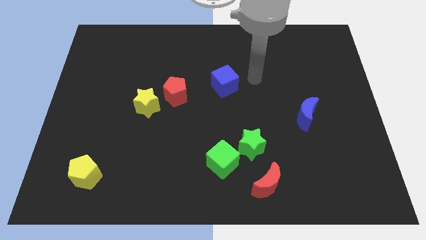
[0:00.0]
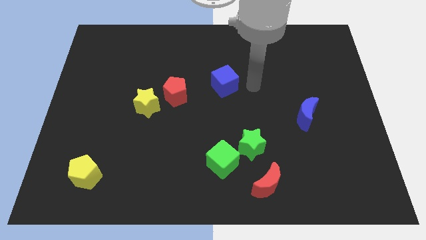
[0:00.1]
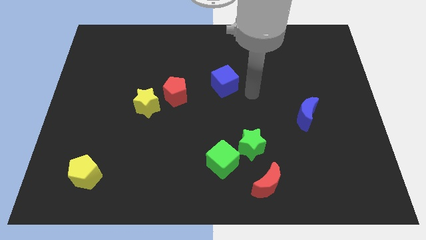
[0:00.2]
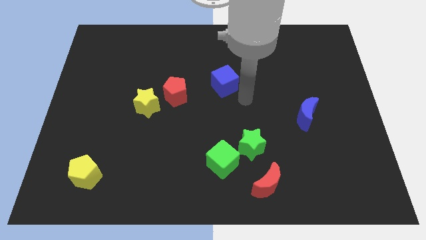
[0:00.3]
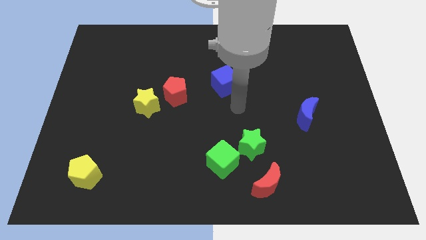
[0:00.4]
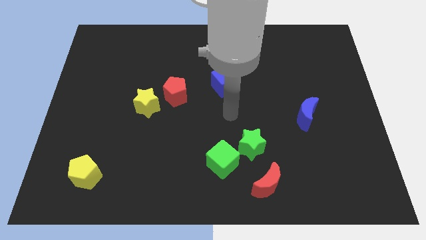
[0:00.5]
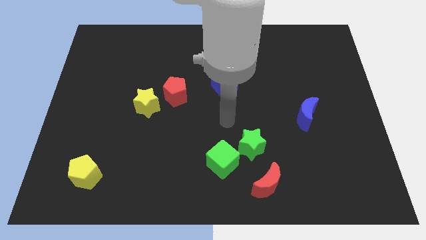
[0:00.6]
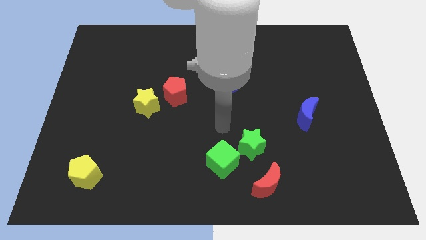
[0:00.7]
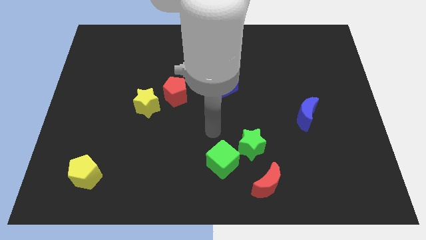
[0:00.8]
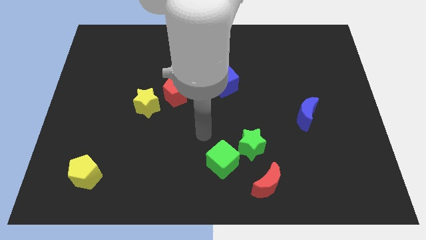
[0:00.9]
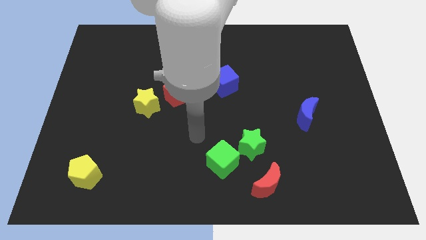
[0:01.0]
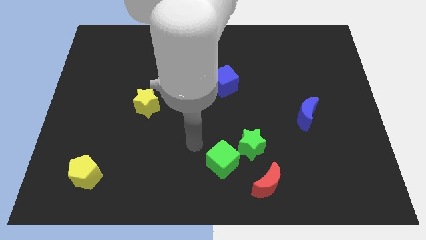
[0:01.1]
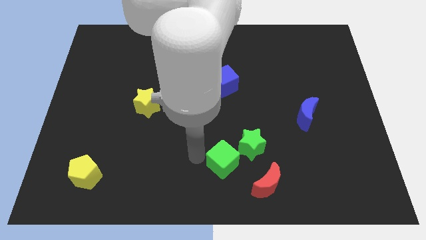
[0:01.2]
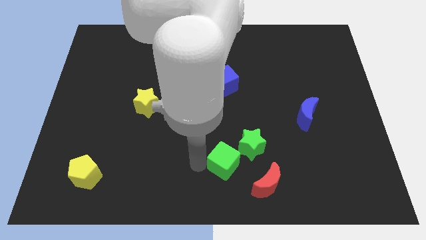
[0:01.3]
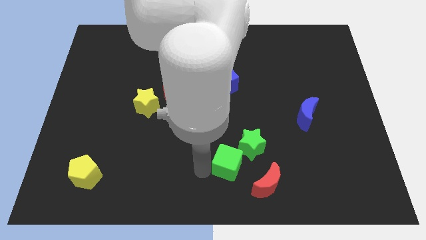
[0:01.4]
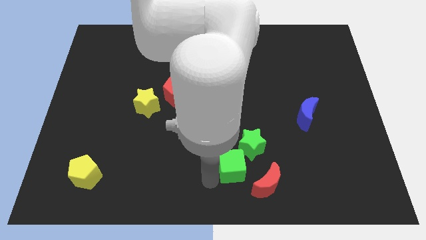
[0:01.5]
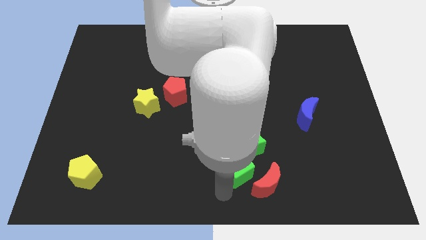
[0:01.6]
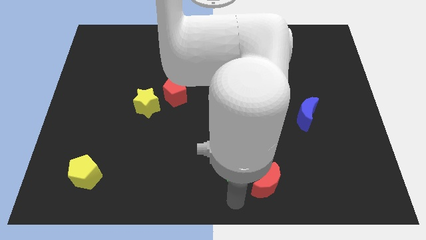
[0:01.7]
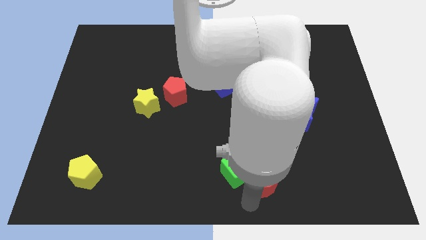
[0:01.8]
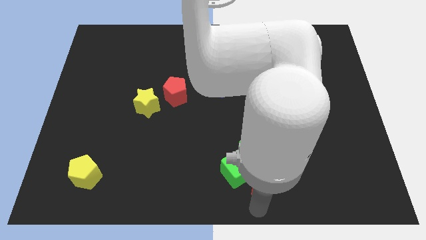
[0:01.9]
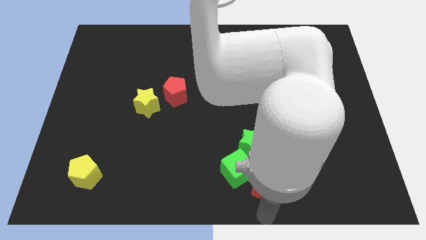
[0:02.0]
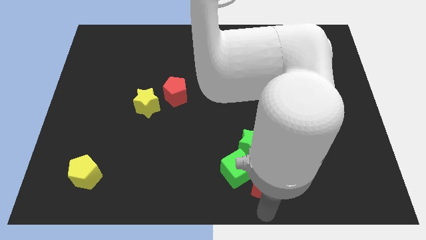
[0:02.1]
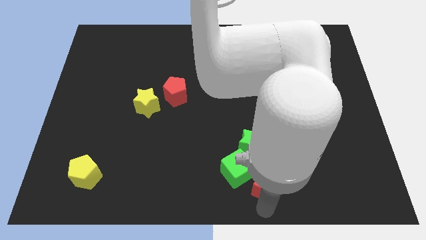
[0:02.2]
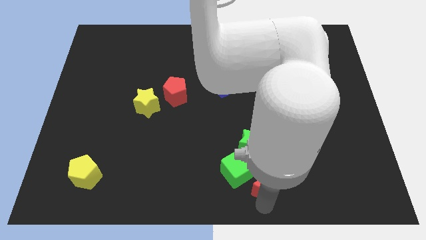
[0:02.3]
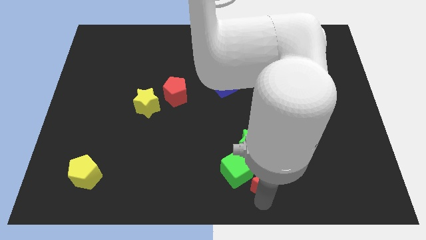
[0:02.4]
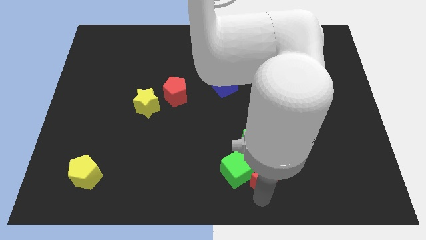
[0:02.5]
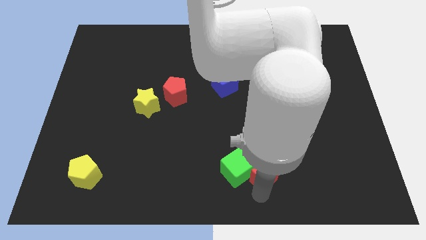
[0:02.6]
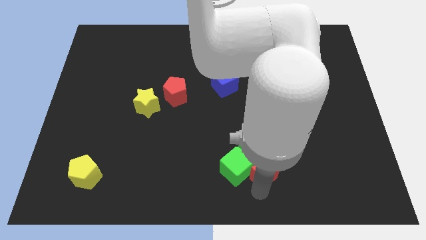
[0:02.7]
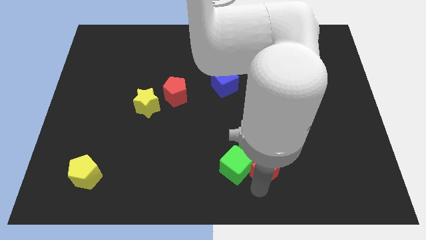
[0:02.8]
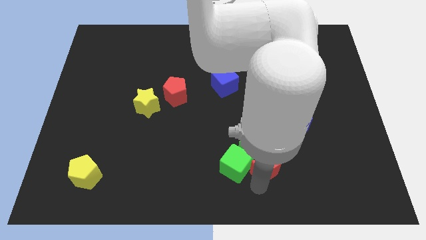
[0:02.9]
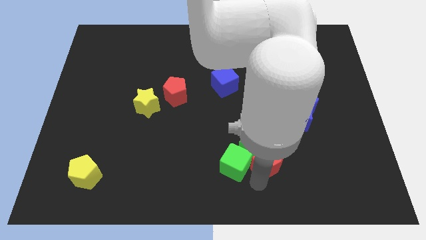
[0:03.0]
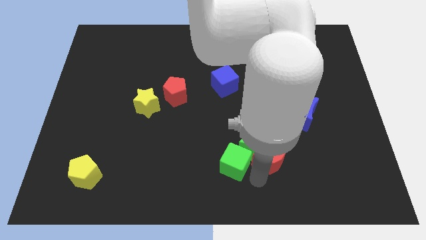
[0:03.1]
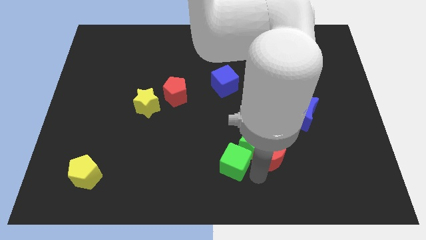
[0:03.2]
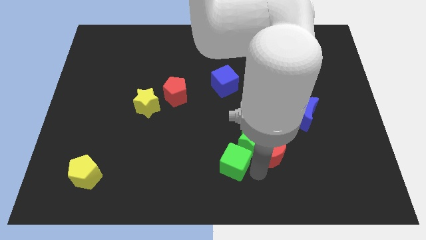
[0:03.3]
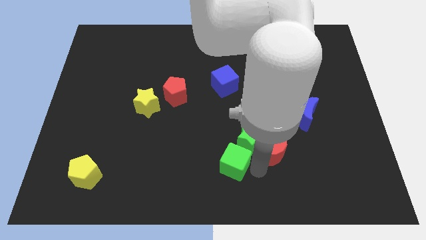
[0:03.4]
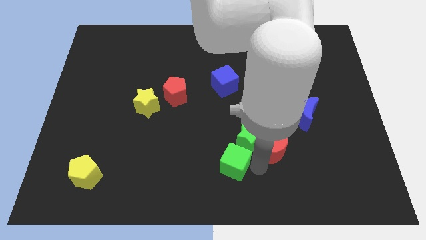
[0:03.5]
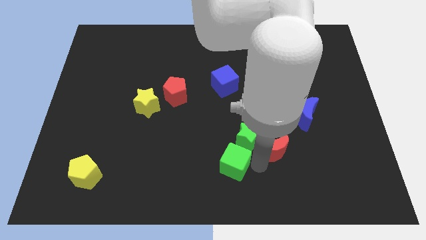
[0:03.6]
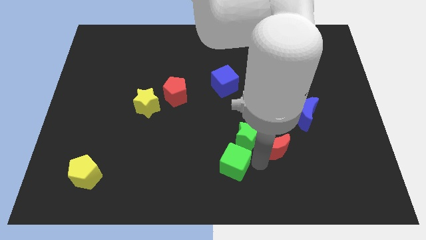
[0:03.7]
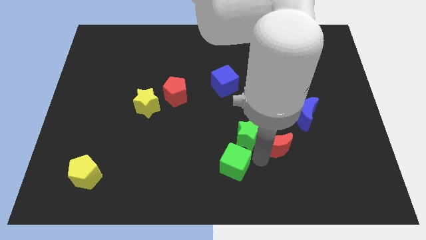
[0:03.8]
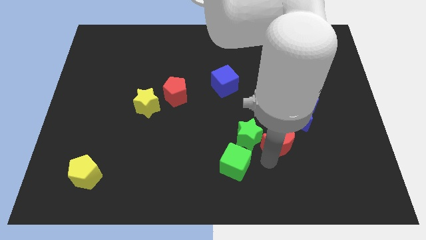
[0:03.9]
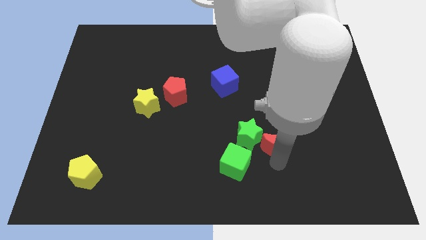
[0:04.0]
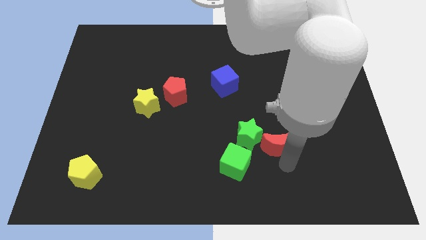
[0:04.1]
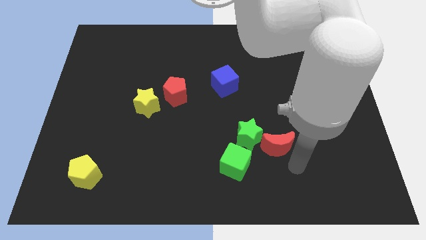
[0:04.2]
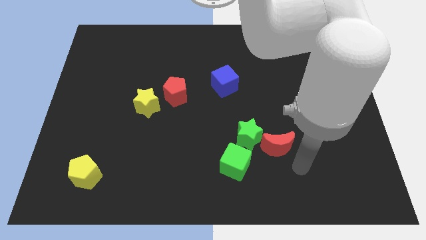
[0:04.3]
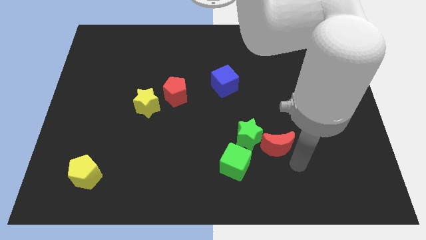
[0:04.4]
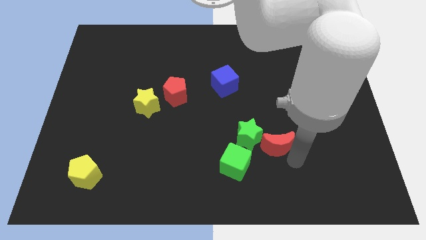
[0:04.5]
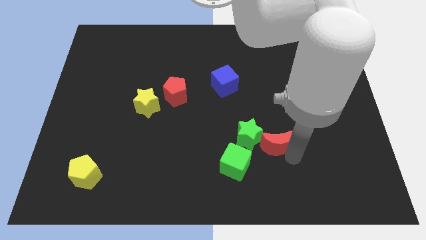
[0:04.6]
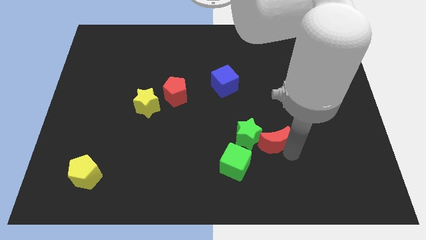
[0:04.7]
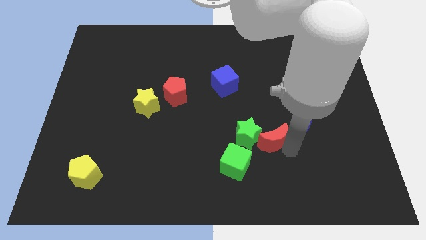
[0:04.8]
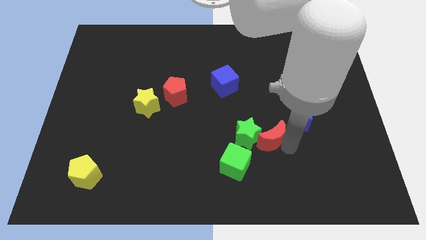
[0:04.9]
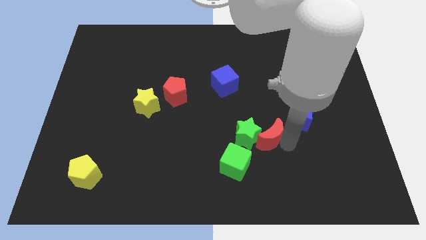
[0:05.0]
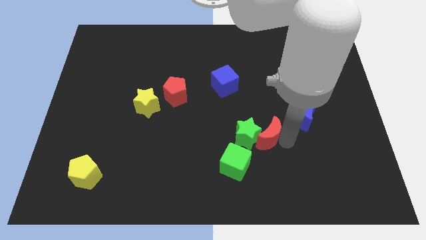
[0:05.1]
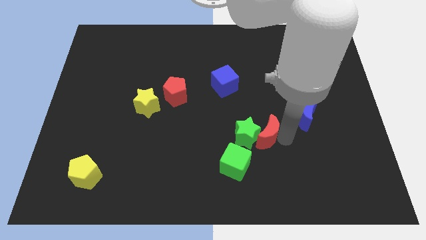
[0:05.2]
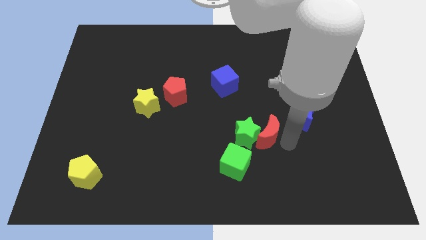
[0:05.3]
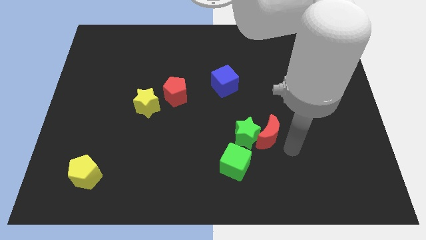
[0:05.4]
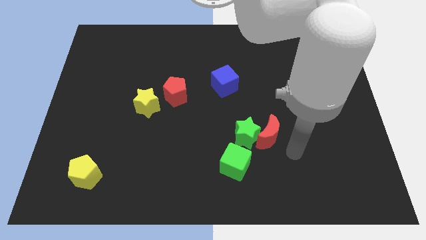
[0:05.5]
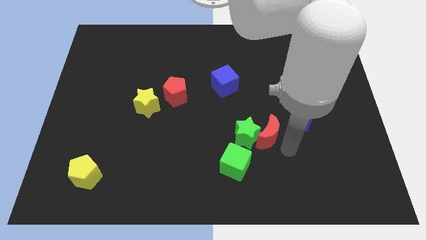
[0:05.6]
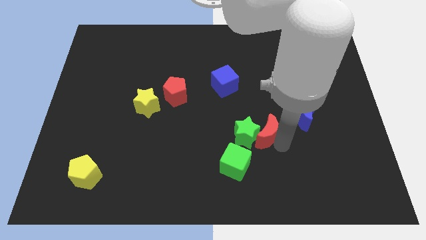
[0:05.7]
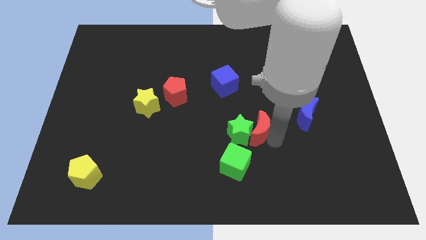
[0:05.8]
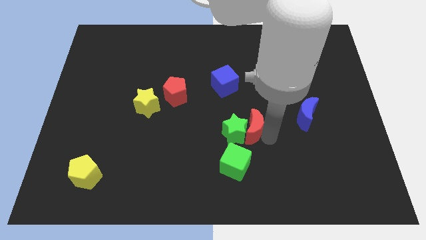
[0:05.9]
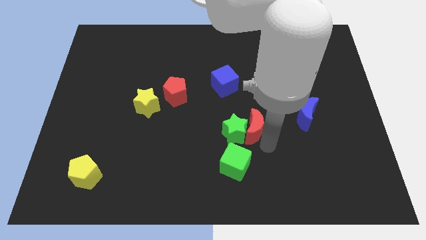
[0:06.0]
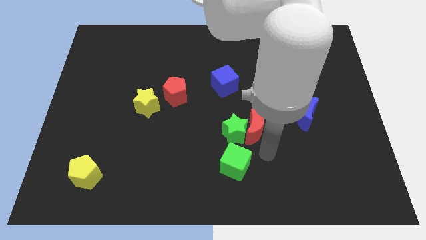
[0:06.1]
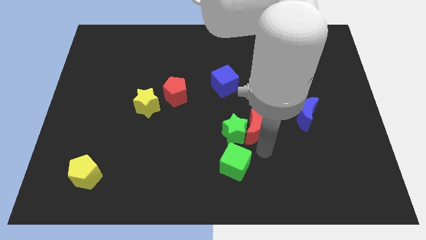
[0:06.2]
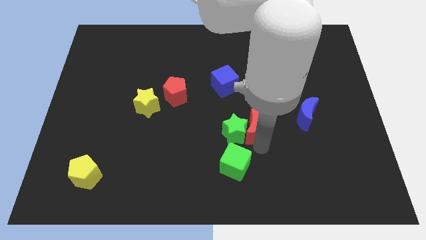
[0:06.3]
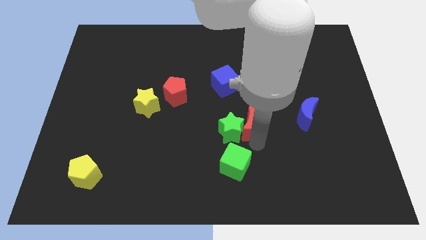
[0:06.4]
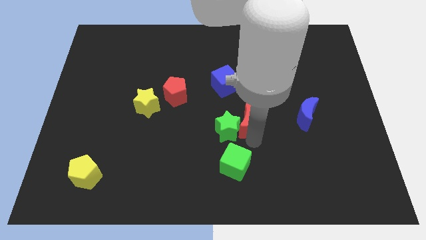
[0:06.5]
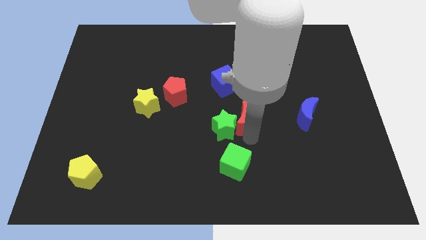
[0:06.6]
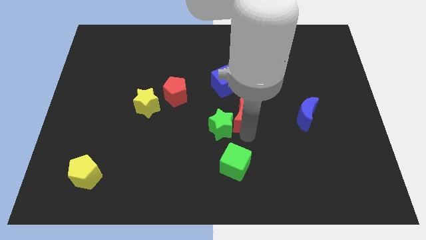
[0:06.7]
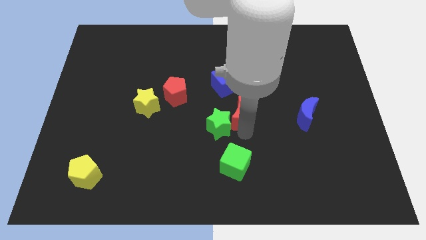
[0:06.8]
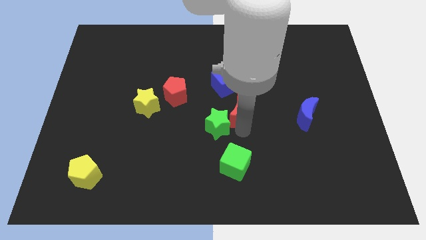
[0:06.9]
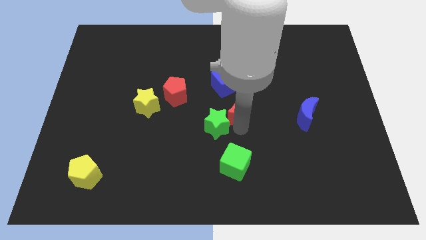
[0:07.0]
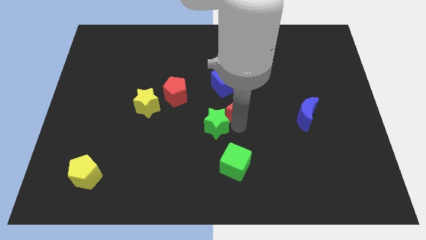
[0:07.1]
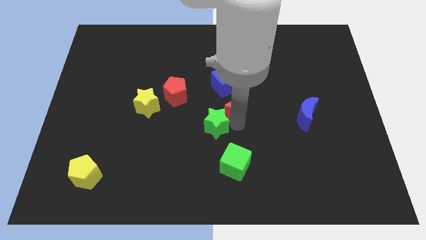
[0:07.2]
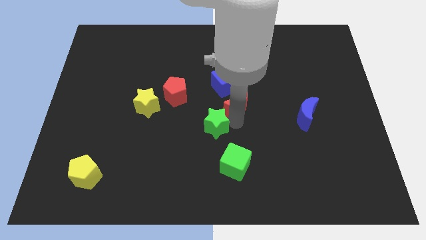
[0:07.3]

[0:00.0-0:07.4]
move the red moon just right of the red pentagon
